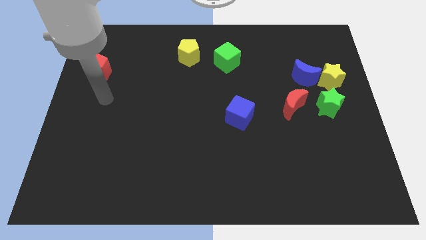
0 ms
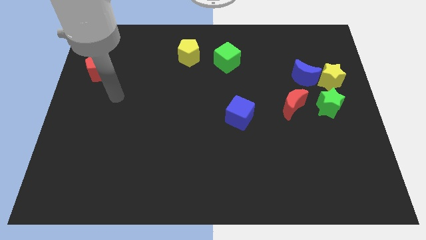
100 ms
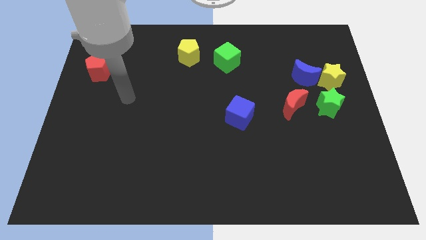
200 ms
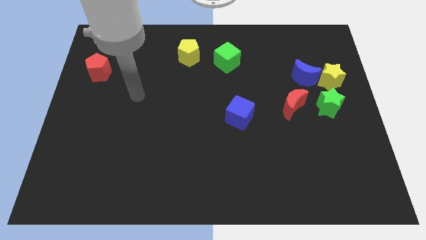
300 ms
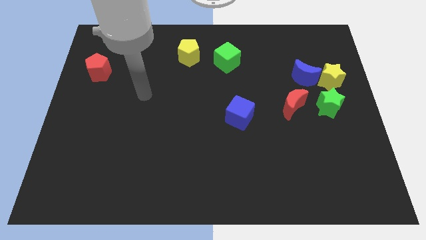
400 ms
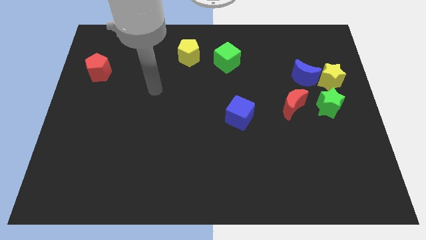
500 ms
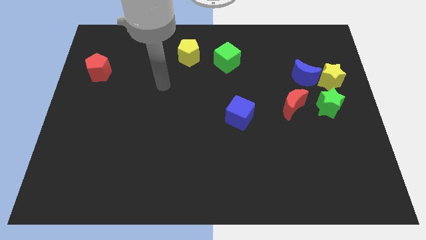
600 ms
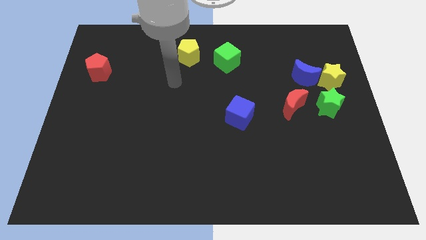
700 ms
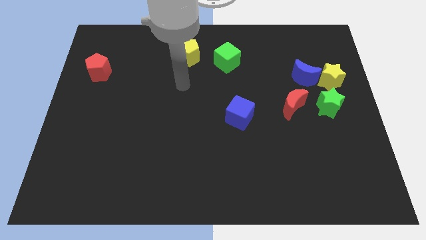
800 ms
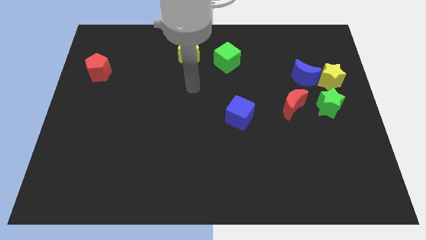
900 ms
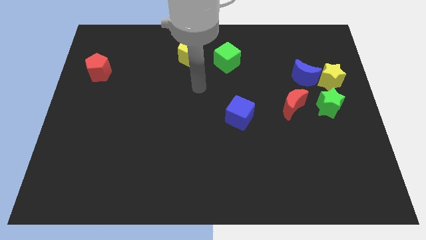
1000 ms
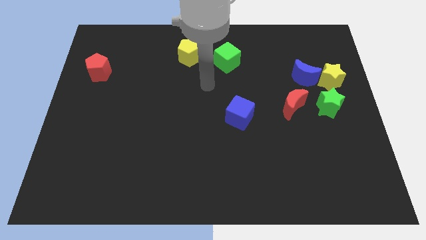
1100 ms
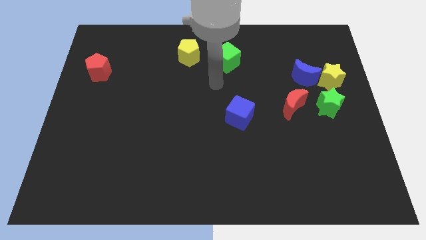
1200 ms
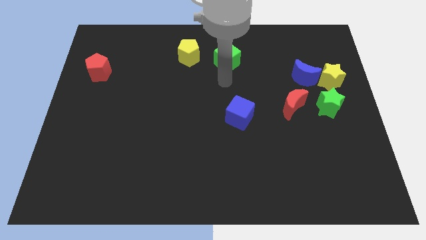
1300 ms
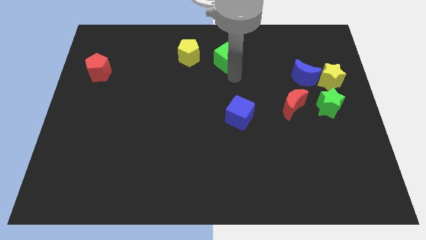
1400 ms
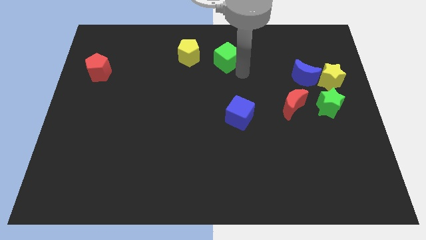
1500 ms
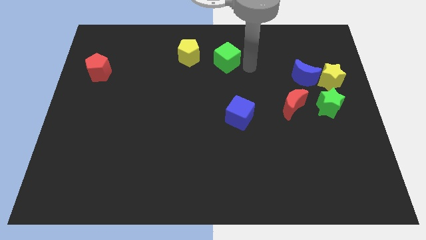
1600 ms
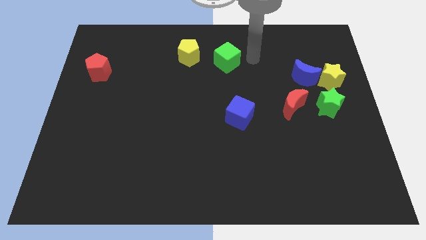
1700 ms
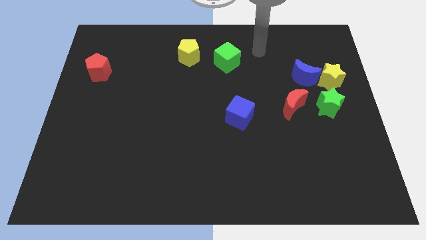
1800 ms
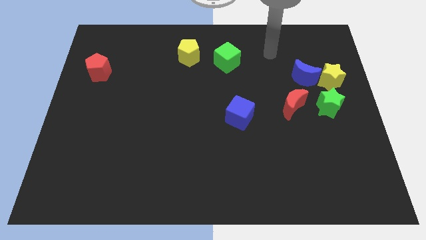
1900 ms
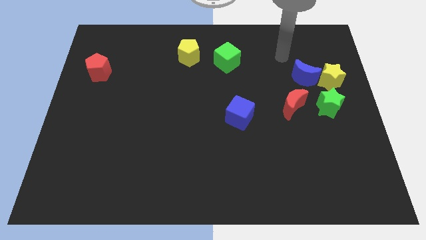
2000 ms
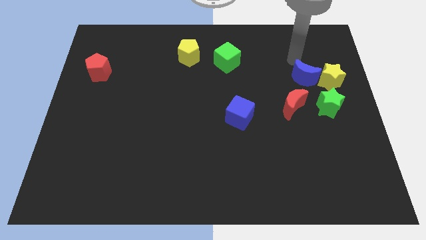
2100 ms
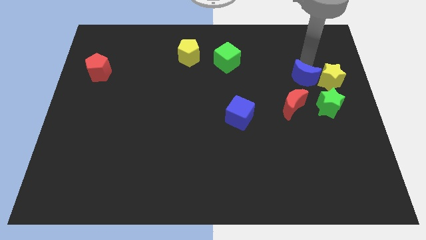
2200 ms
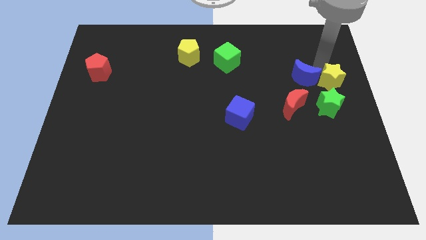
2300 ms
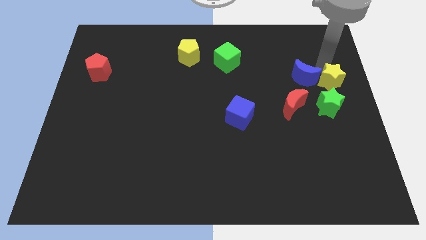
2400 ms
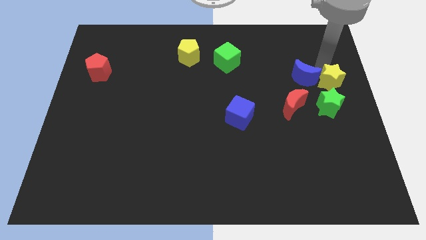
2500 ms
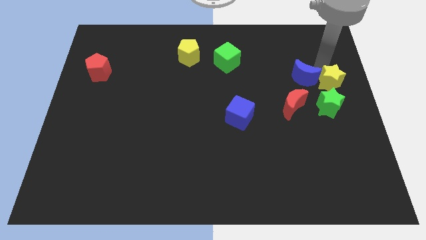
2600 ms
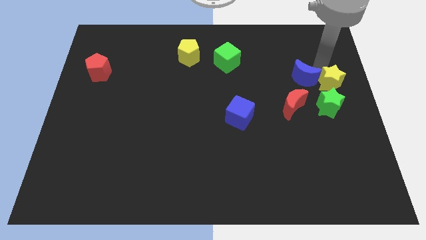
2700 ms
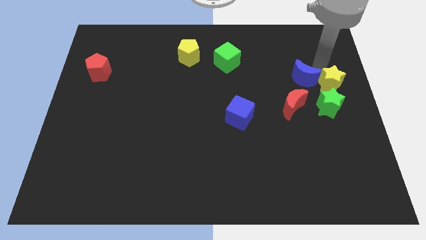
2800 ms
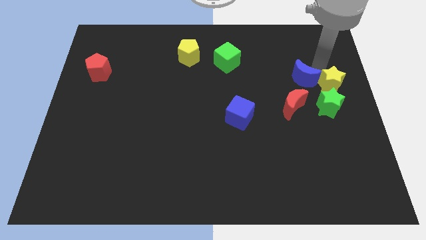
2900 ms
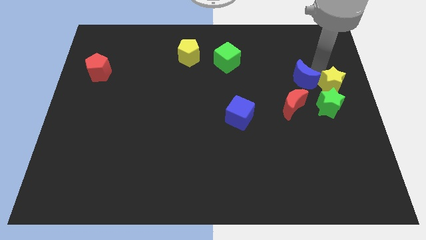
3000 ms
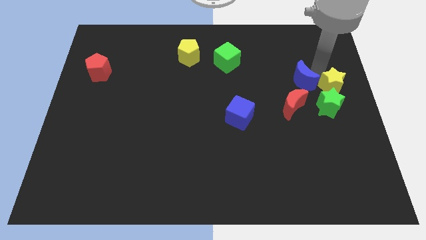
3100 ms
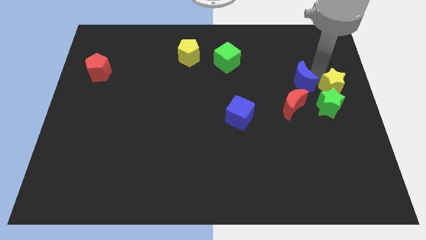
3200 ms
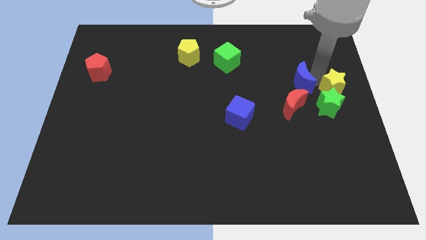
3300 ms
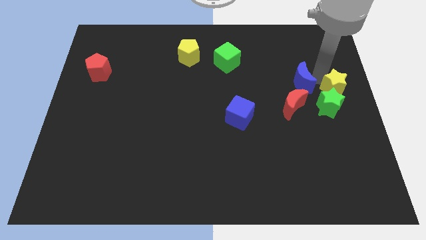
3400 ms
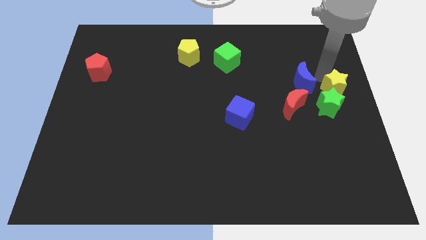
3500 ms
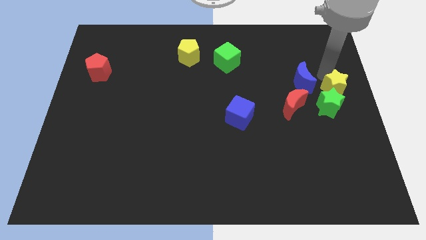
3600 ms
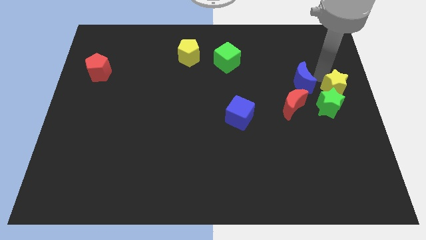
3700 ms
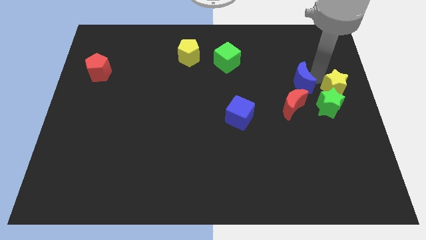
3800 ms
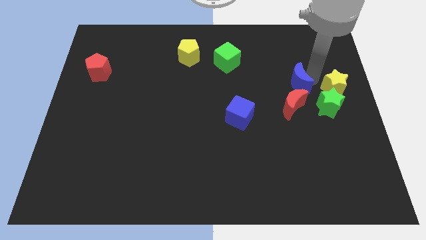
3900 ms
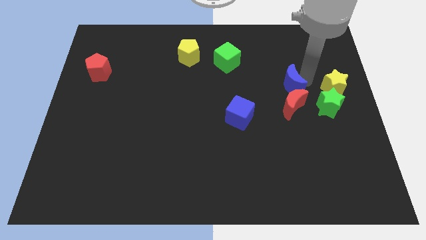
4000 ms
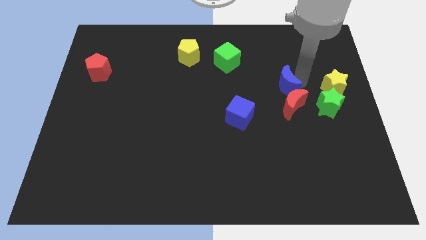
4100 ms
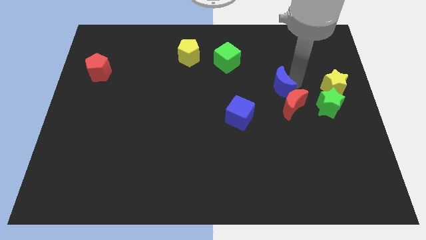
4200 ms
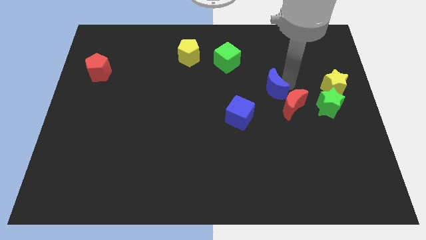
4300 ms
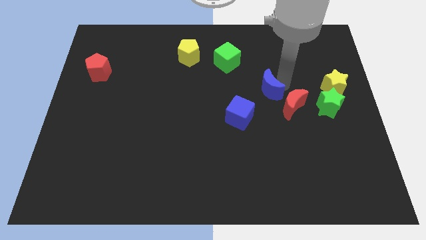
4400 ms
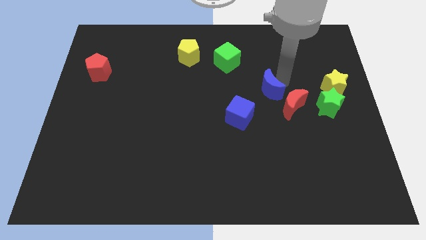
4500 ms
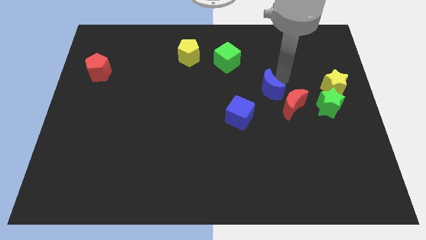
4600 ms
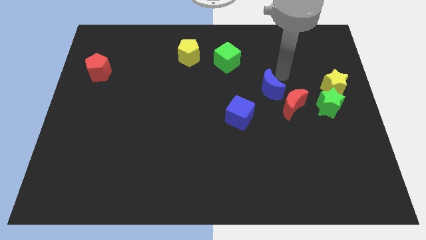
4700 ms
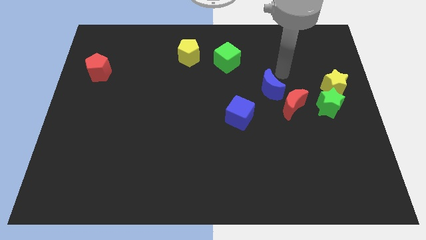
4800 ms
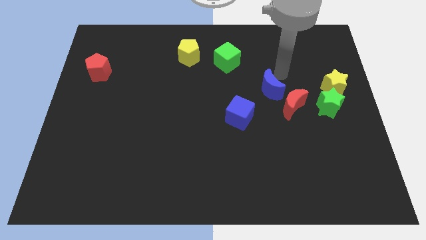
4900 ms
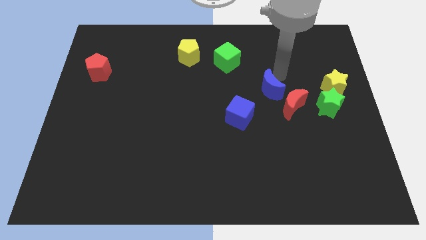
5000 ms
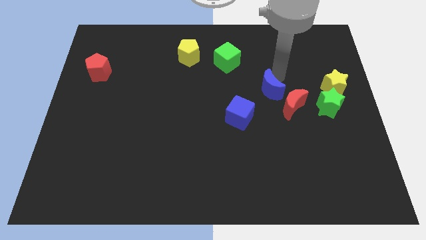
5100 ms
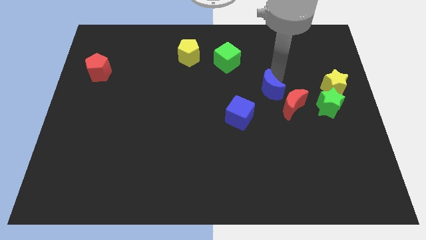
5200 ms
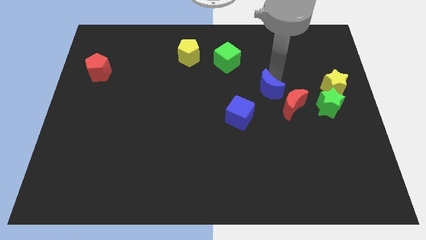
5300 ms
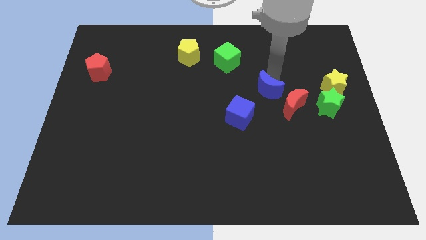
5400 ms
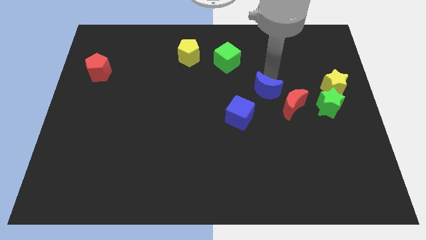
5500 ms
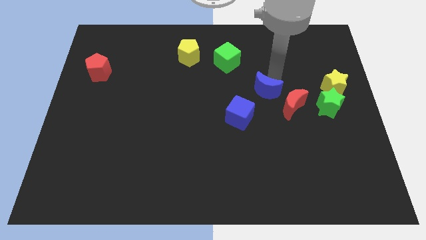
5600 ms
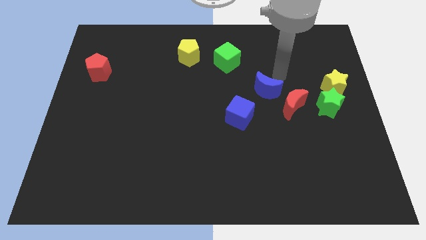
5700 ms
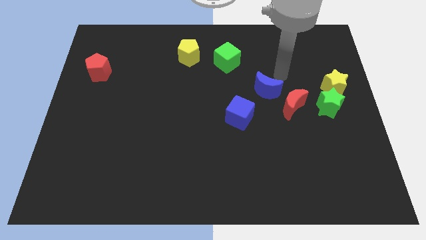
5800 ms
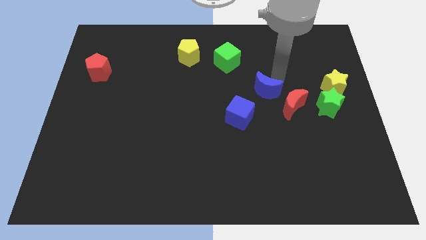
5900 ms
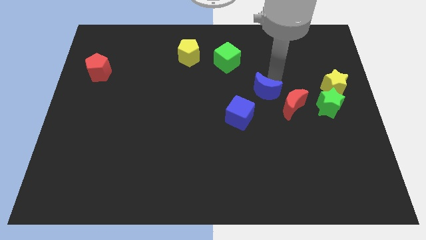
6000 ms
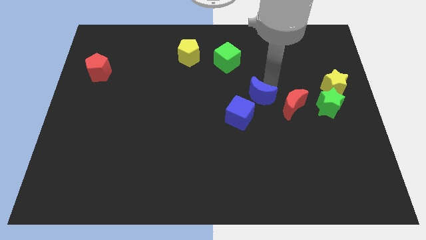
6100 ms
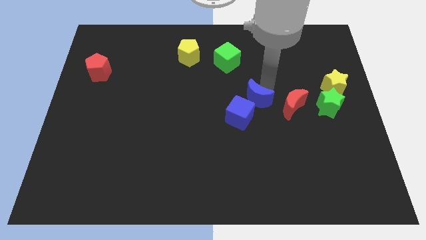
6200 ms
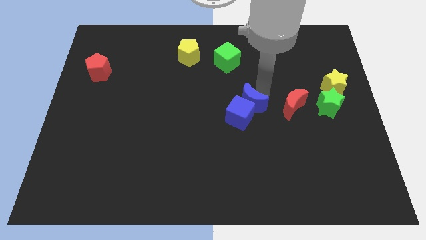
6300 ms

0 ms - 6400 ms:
put the blue moon to the blue cube

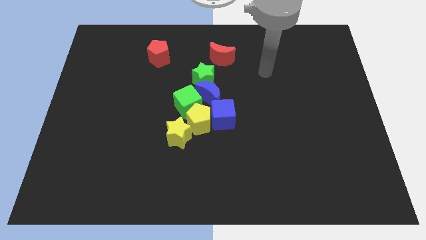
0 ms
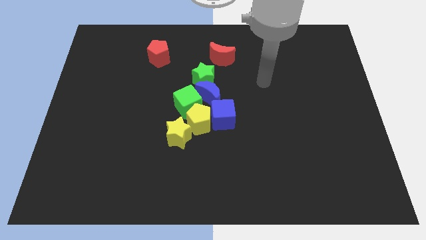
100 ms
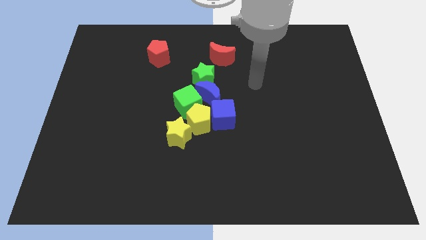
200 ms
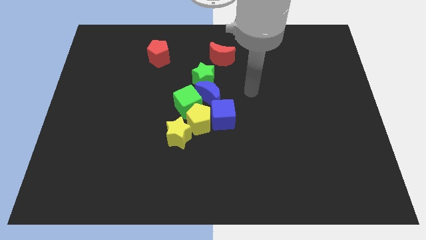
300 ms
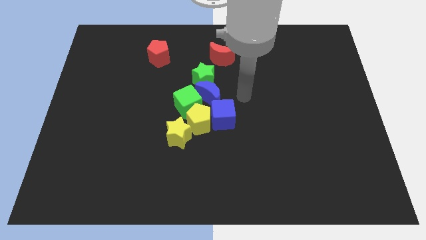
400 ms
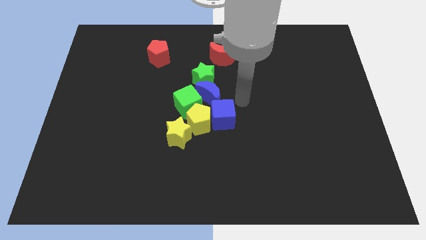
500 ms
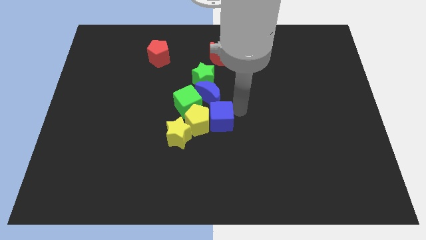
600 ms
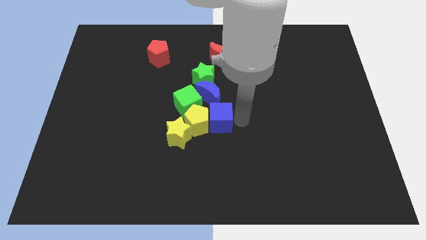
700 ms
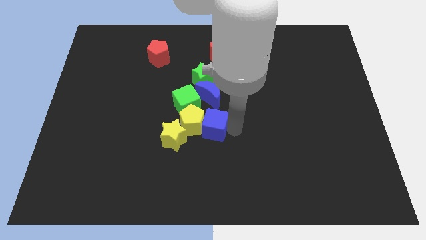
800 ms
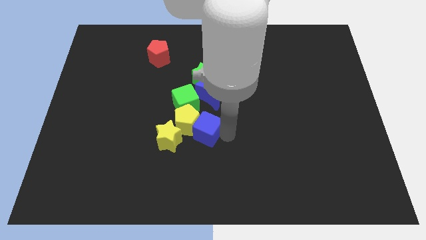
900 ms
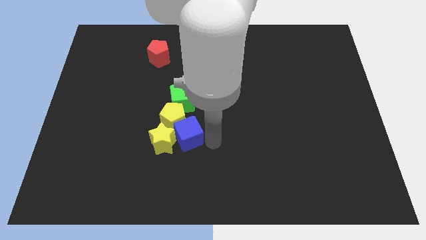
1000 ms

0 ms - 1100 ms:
move the yellow star towards the blue cube
